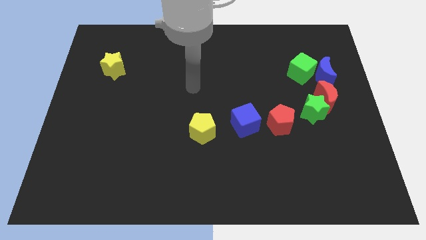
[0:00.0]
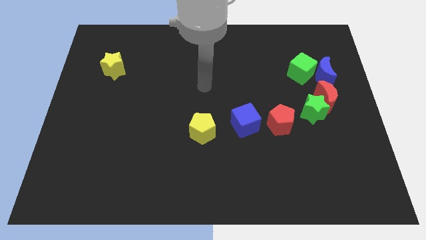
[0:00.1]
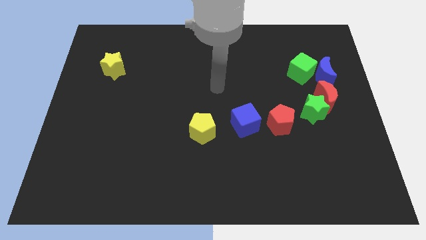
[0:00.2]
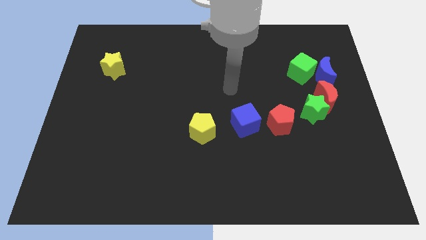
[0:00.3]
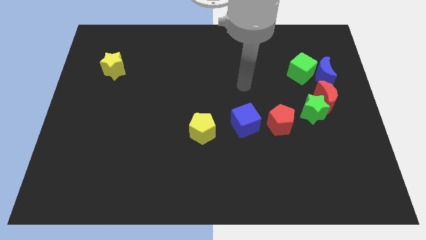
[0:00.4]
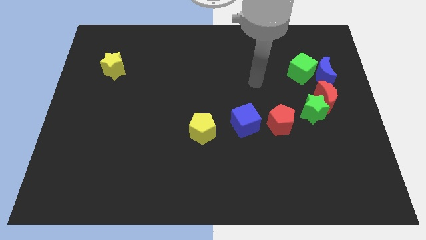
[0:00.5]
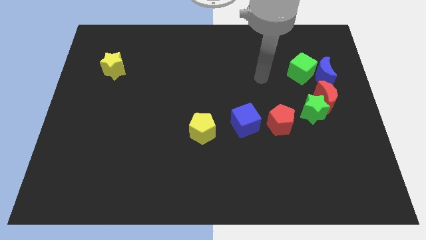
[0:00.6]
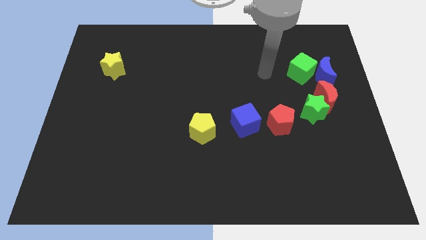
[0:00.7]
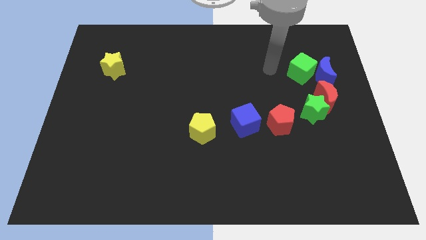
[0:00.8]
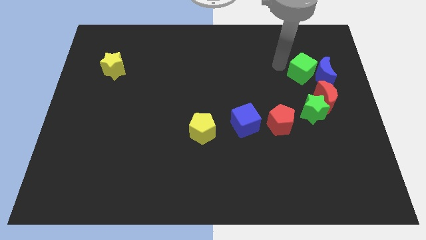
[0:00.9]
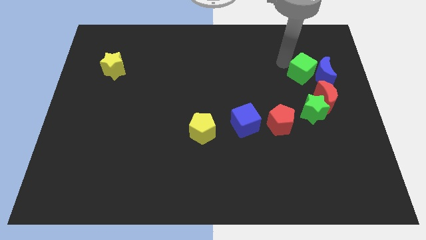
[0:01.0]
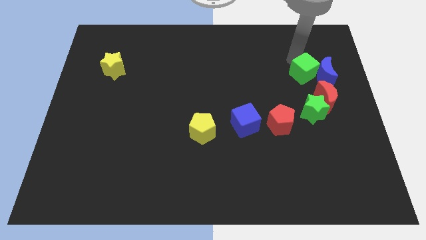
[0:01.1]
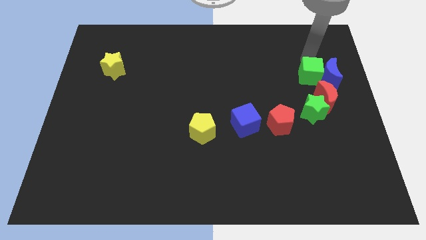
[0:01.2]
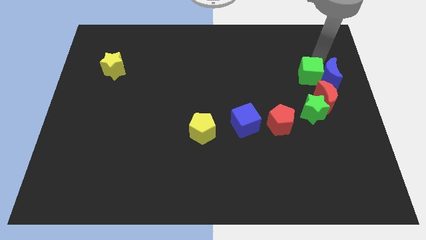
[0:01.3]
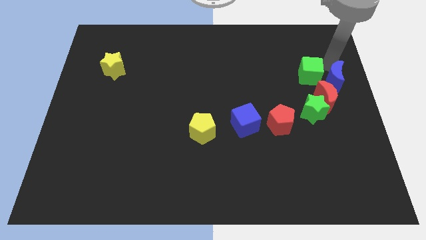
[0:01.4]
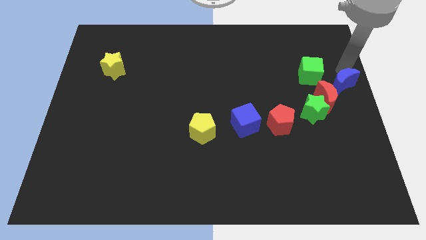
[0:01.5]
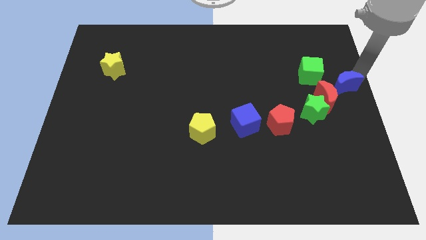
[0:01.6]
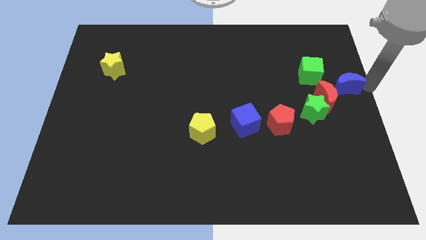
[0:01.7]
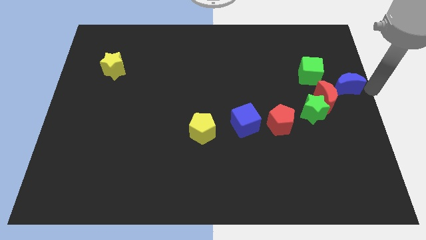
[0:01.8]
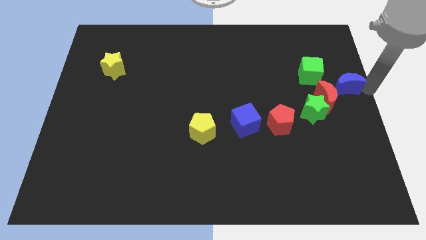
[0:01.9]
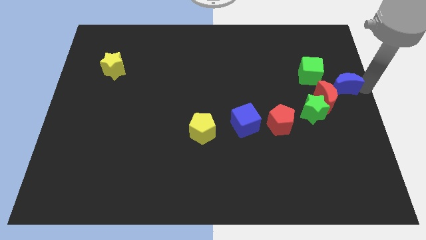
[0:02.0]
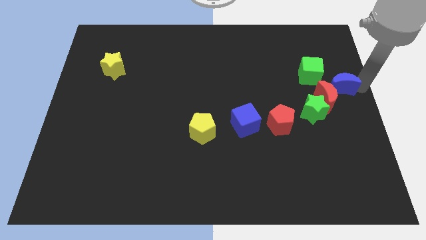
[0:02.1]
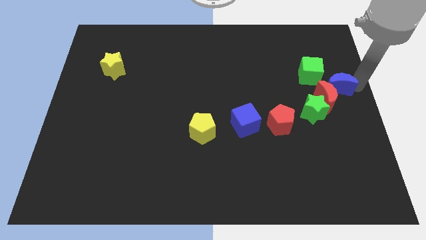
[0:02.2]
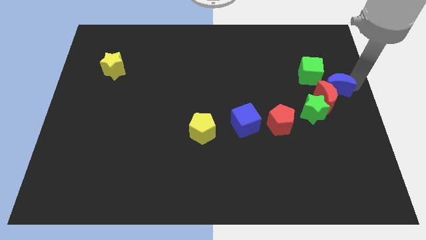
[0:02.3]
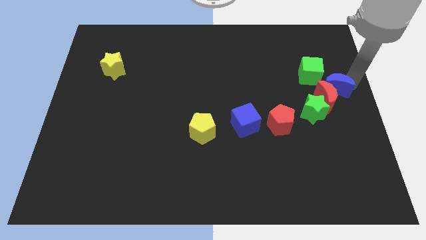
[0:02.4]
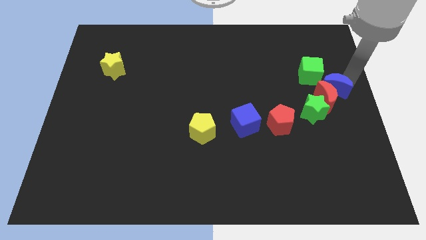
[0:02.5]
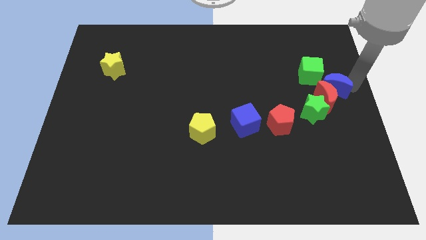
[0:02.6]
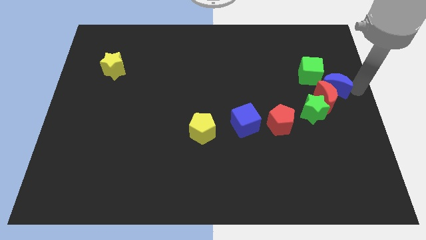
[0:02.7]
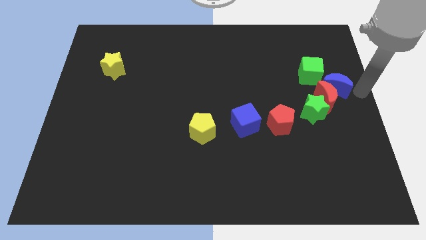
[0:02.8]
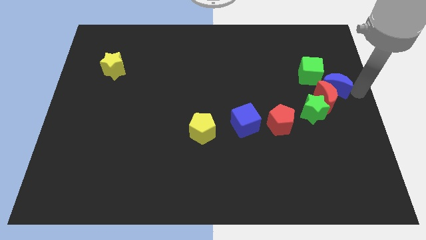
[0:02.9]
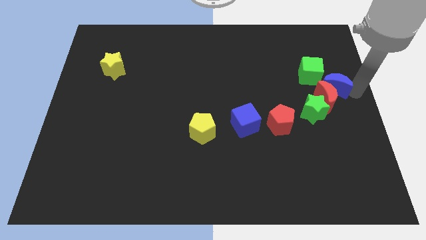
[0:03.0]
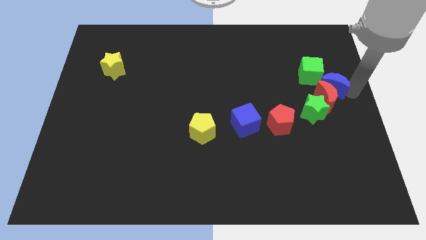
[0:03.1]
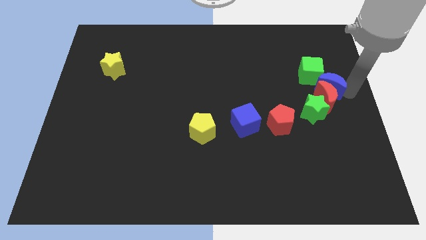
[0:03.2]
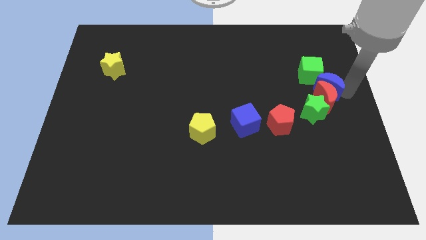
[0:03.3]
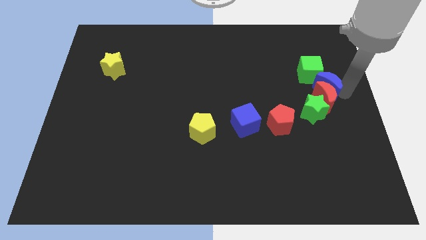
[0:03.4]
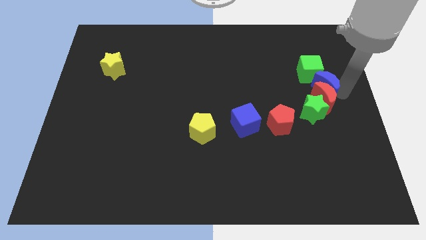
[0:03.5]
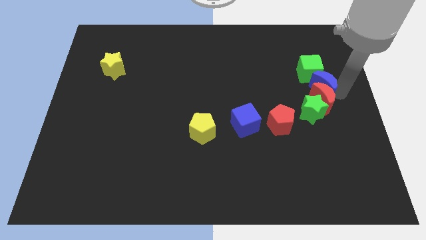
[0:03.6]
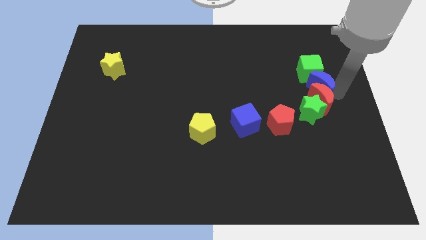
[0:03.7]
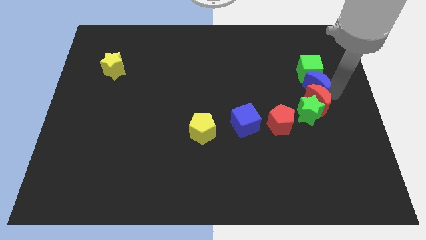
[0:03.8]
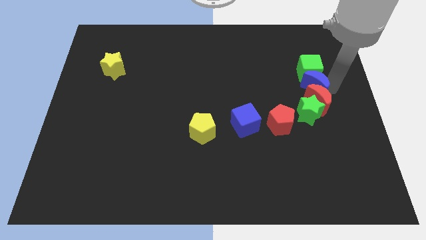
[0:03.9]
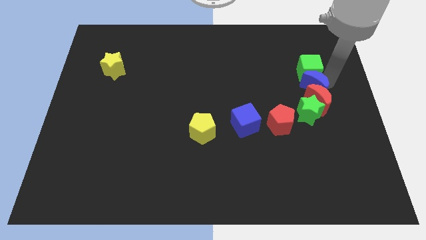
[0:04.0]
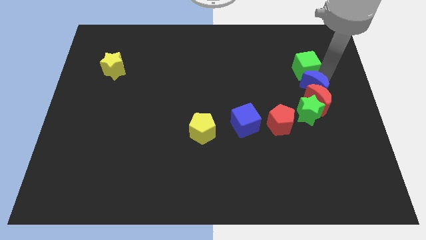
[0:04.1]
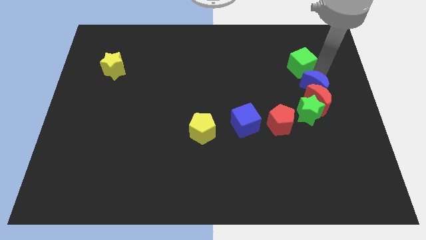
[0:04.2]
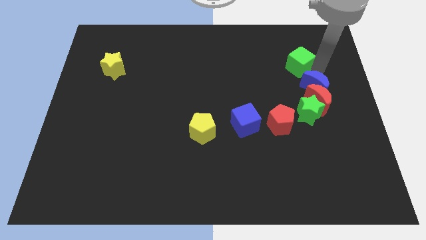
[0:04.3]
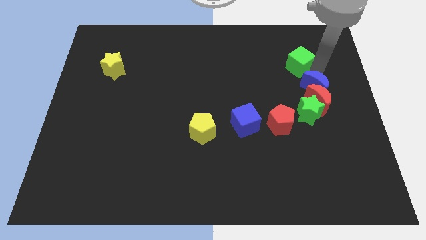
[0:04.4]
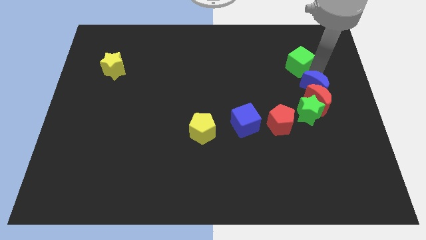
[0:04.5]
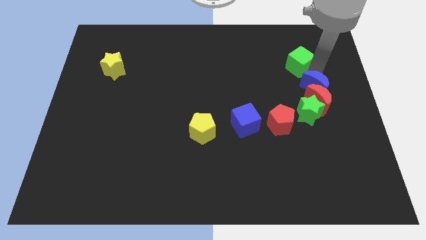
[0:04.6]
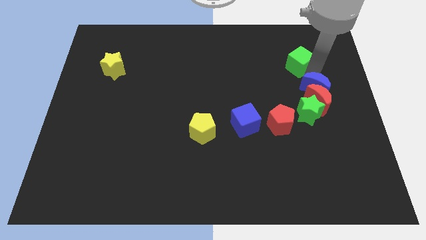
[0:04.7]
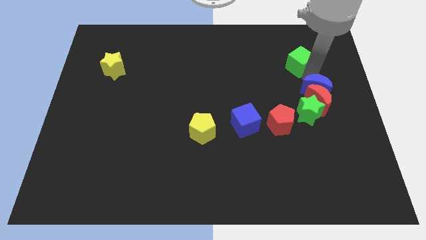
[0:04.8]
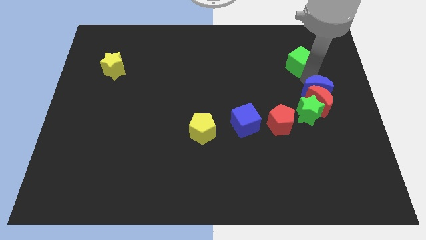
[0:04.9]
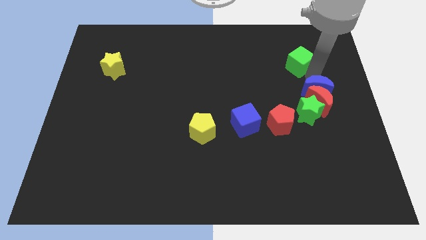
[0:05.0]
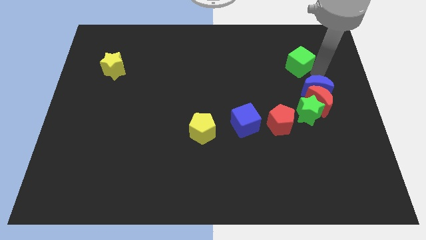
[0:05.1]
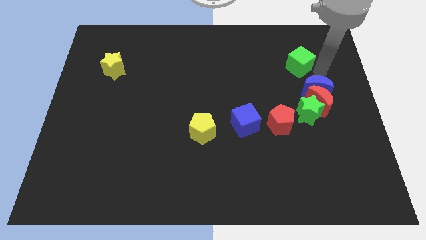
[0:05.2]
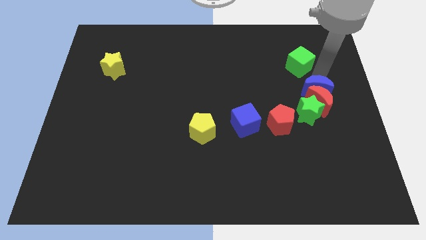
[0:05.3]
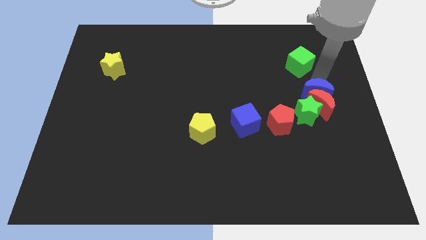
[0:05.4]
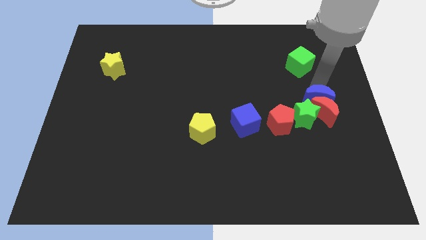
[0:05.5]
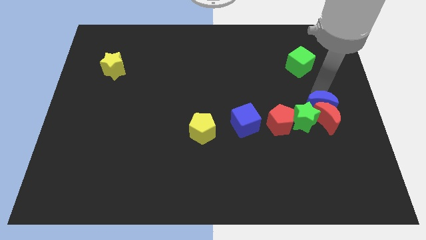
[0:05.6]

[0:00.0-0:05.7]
push the blue moon towards the green star

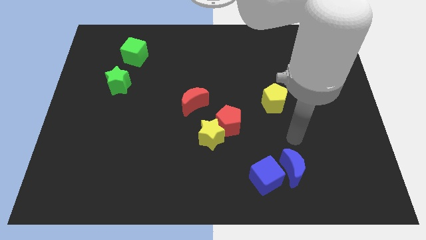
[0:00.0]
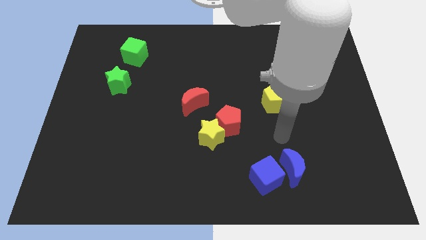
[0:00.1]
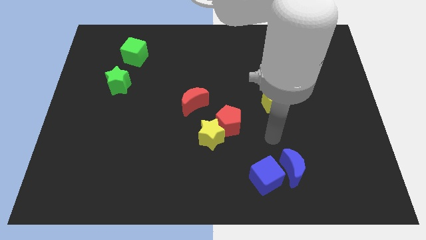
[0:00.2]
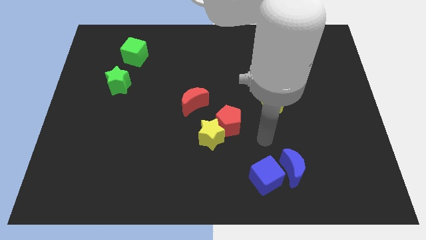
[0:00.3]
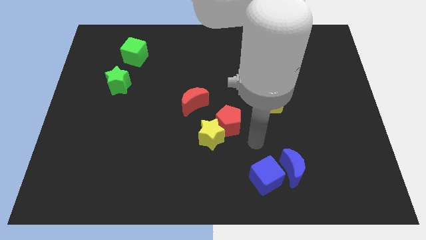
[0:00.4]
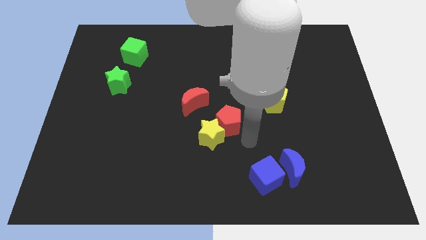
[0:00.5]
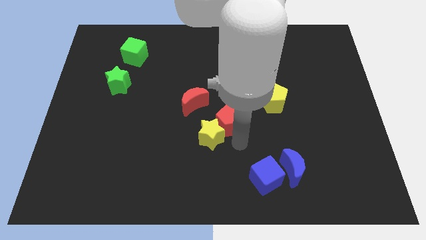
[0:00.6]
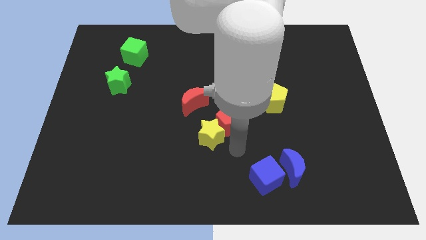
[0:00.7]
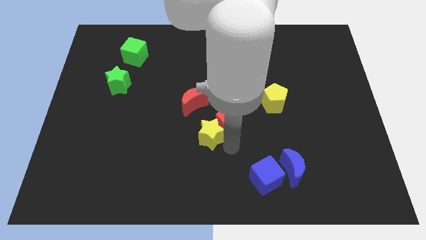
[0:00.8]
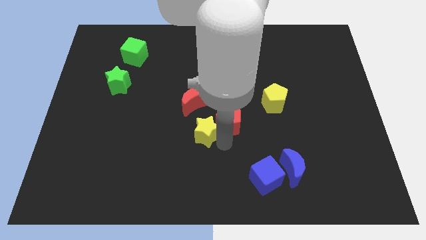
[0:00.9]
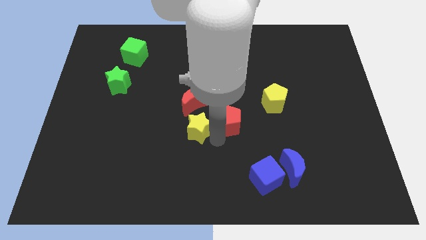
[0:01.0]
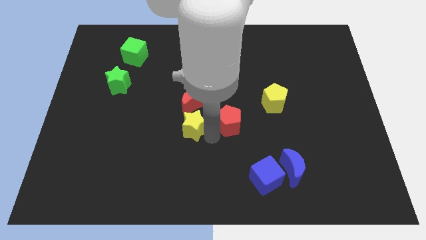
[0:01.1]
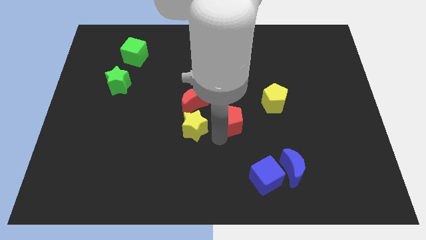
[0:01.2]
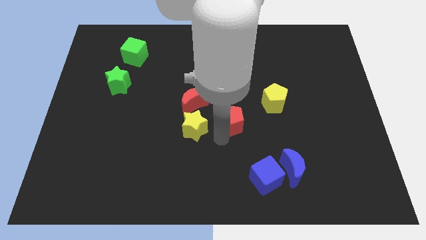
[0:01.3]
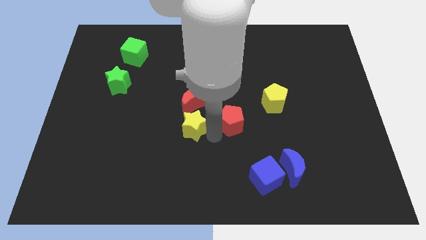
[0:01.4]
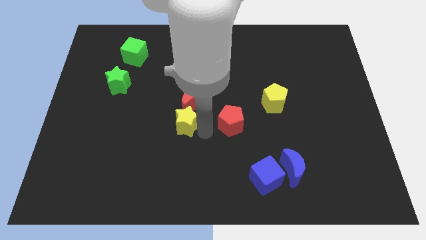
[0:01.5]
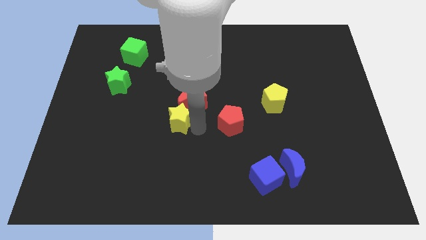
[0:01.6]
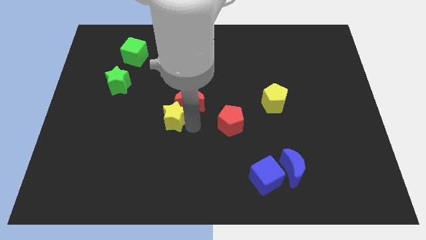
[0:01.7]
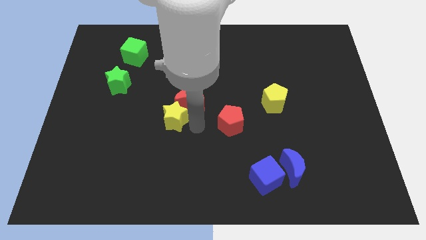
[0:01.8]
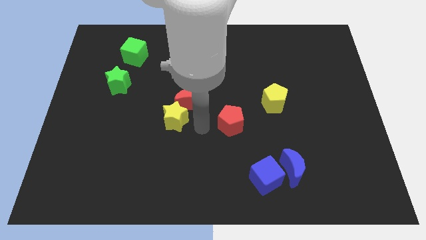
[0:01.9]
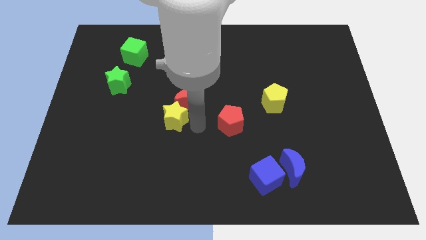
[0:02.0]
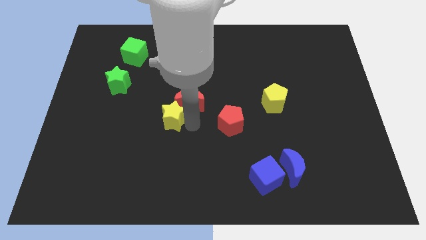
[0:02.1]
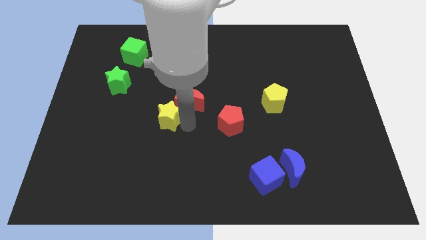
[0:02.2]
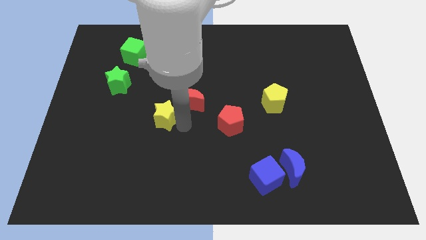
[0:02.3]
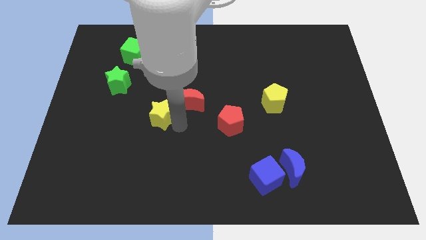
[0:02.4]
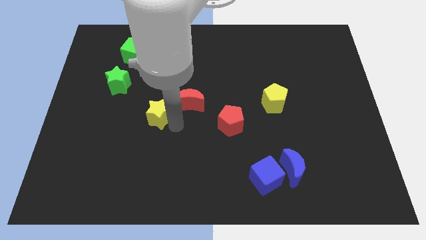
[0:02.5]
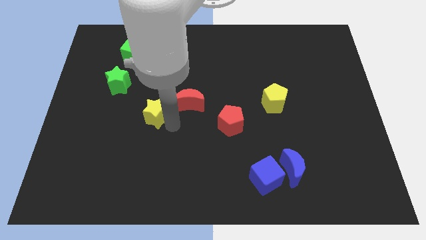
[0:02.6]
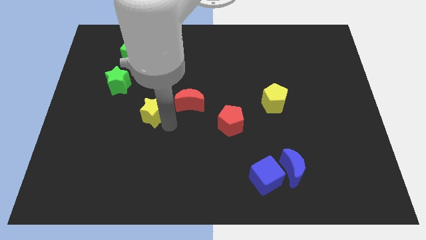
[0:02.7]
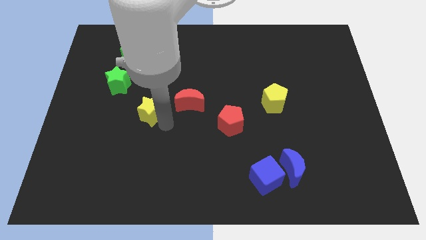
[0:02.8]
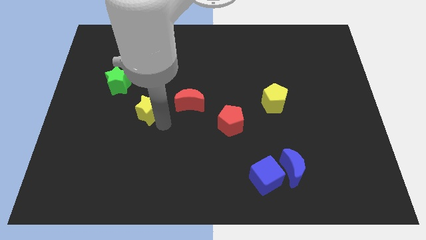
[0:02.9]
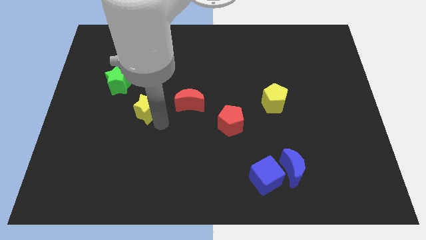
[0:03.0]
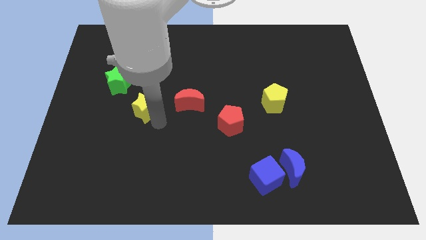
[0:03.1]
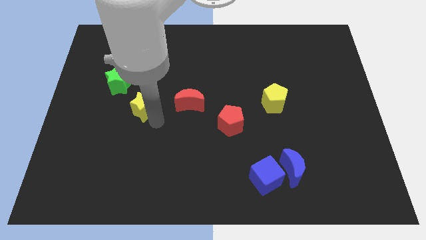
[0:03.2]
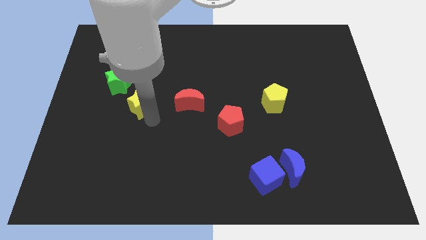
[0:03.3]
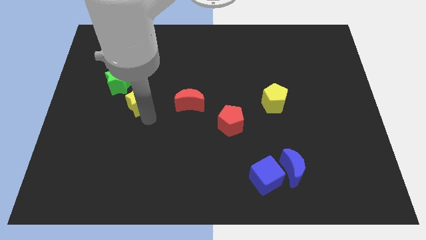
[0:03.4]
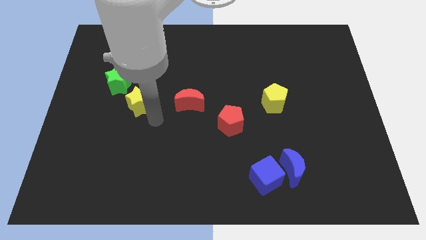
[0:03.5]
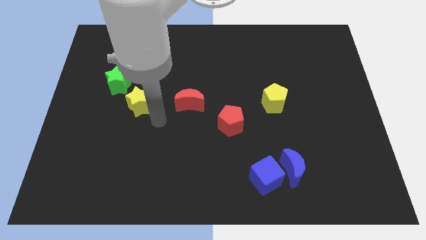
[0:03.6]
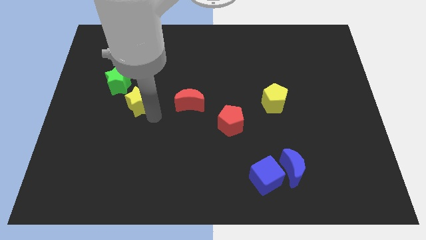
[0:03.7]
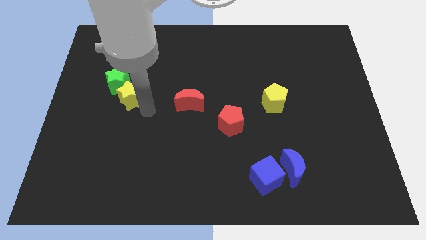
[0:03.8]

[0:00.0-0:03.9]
slide the yellow star next to the green star
